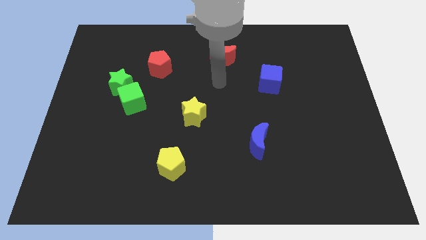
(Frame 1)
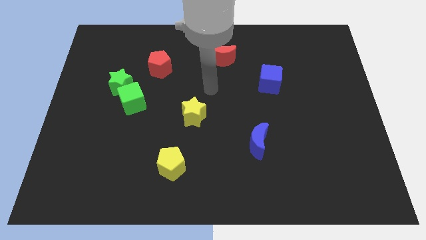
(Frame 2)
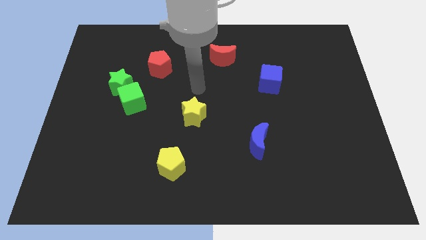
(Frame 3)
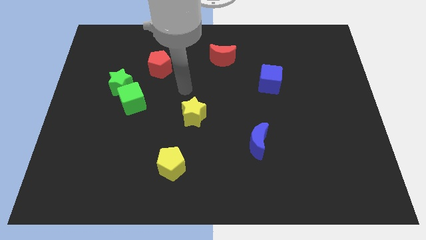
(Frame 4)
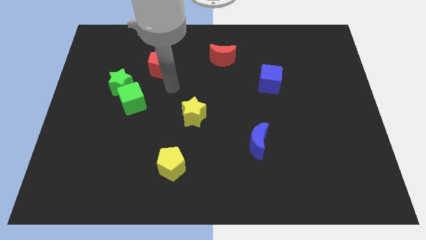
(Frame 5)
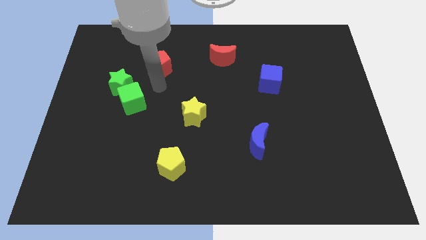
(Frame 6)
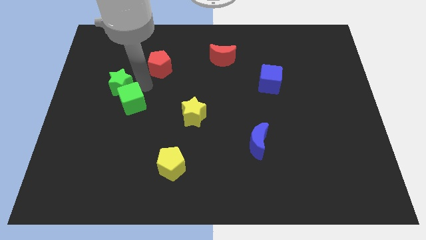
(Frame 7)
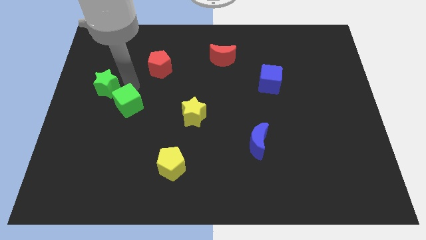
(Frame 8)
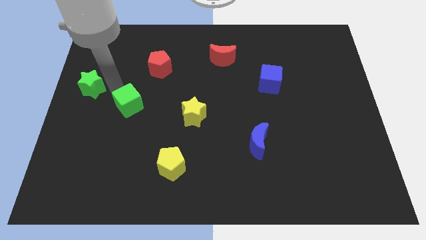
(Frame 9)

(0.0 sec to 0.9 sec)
pull the green cube apart from the green star

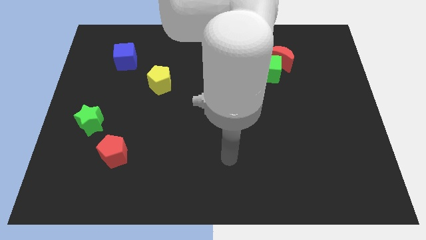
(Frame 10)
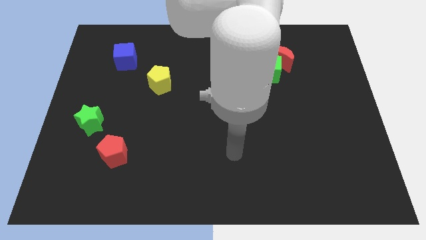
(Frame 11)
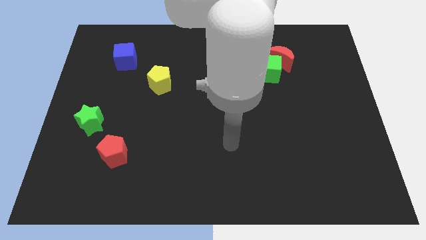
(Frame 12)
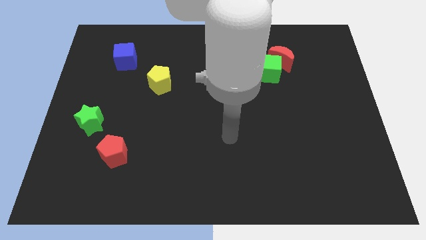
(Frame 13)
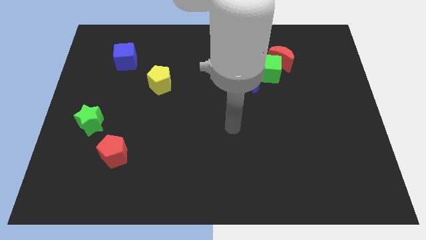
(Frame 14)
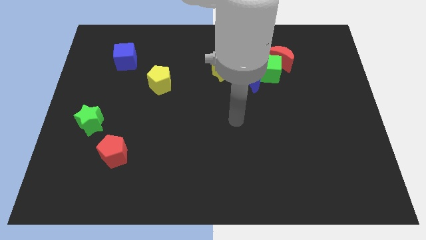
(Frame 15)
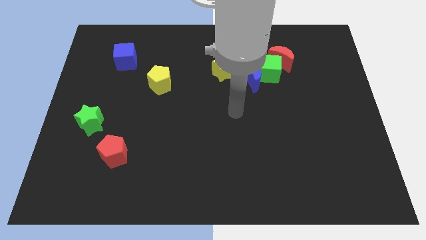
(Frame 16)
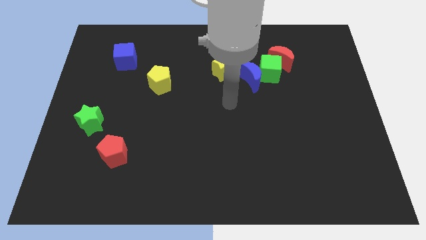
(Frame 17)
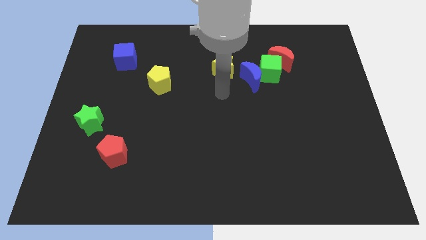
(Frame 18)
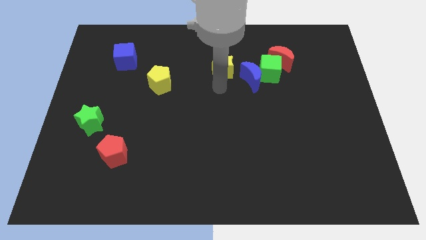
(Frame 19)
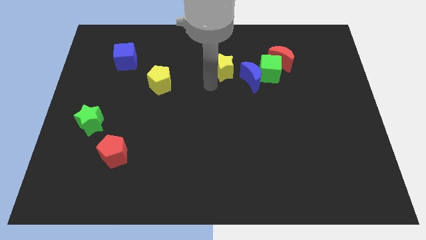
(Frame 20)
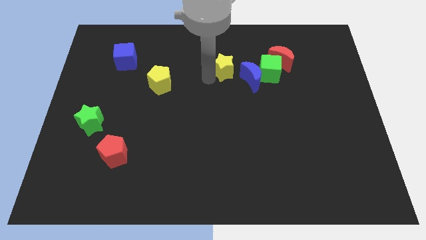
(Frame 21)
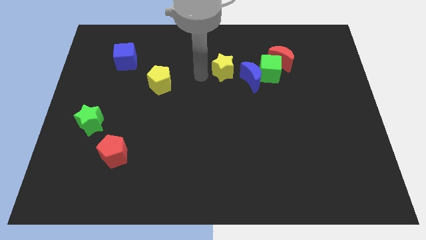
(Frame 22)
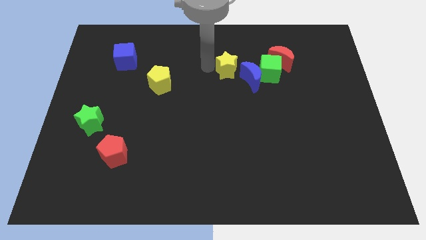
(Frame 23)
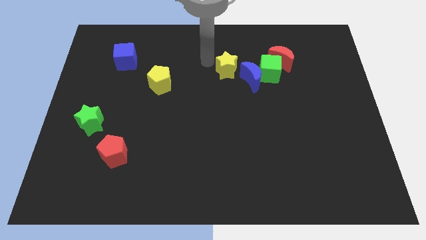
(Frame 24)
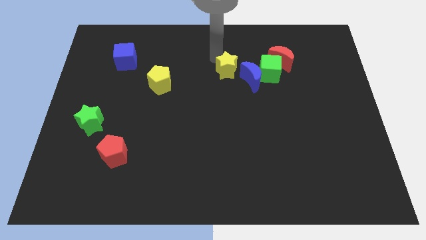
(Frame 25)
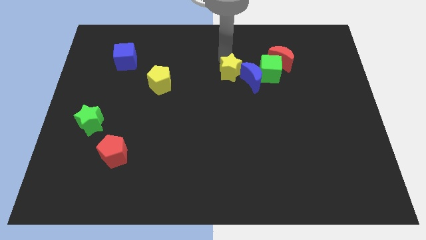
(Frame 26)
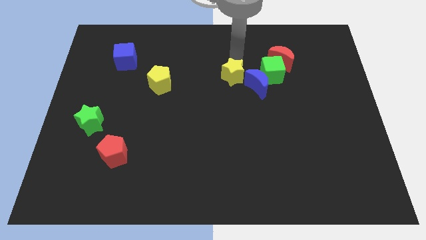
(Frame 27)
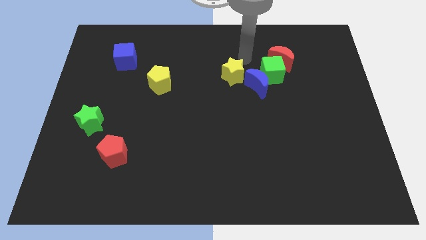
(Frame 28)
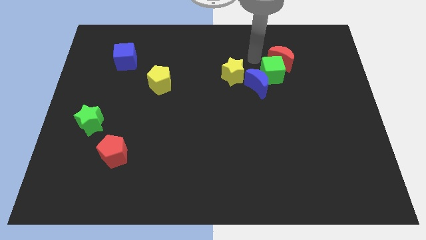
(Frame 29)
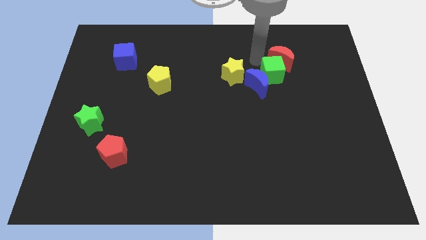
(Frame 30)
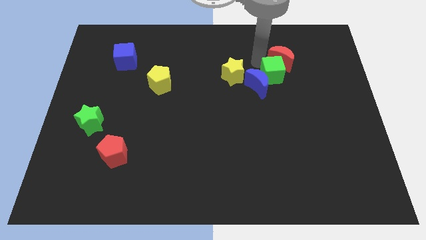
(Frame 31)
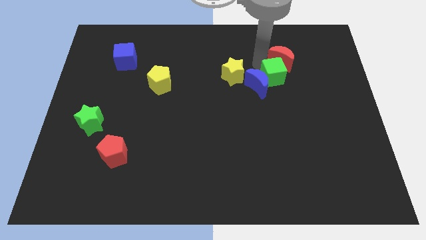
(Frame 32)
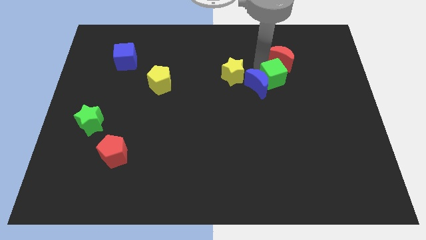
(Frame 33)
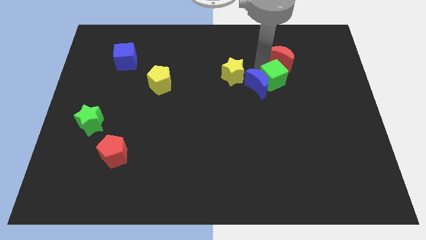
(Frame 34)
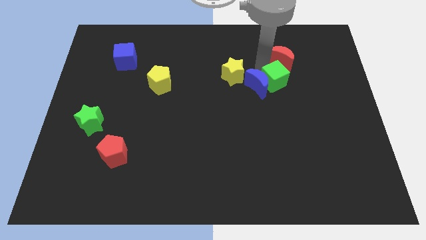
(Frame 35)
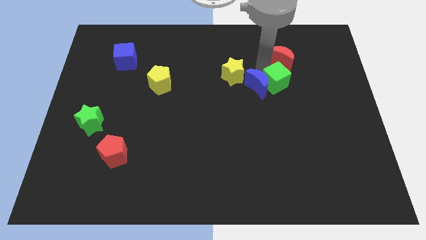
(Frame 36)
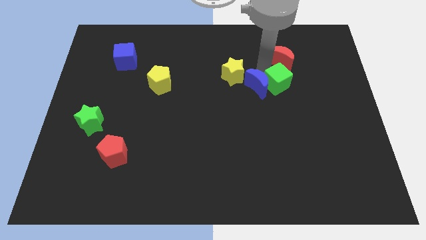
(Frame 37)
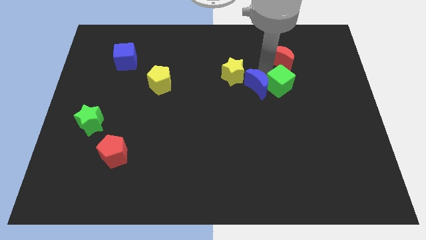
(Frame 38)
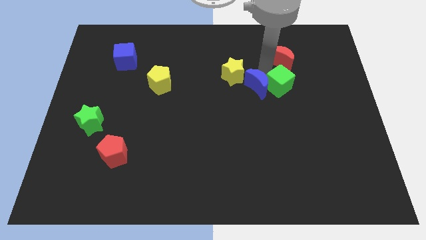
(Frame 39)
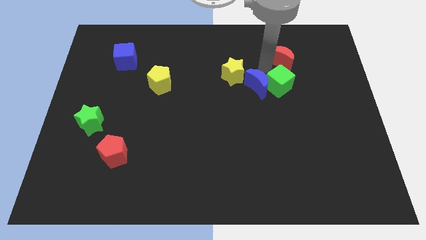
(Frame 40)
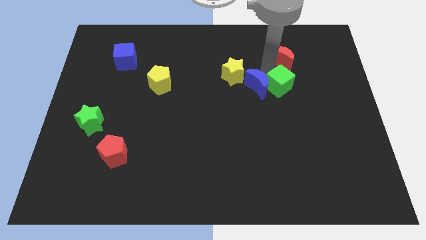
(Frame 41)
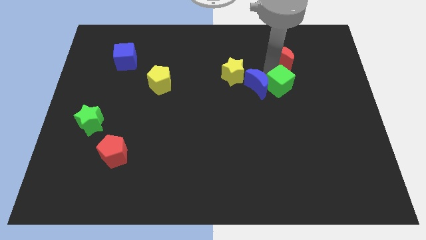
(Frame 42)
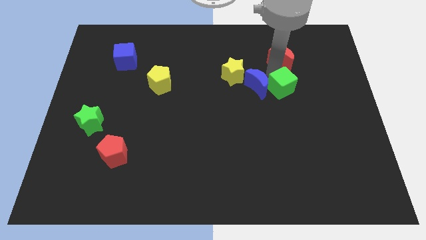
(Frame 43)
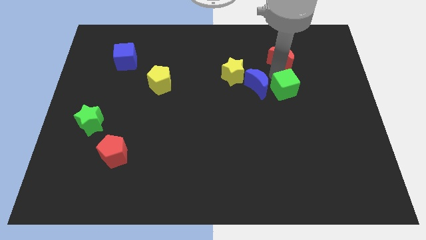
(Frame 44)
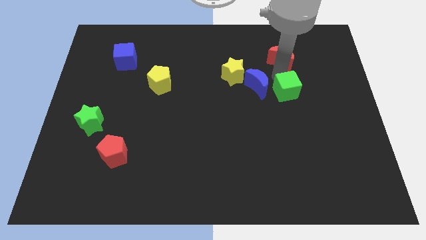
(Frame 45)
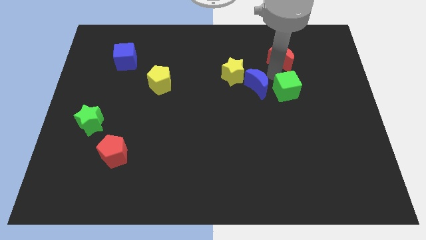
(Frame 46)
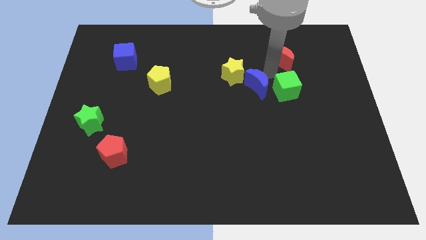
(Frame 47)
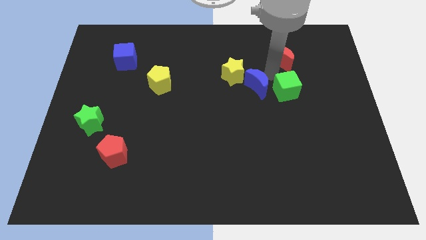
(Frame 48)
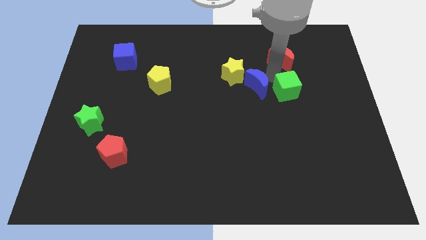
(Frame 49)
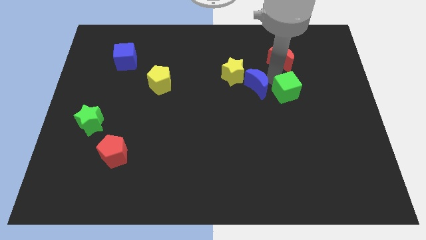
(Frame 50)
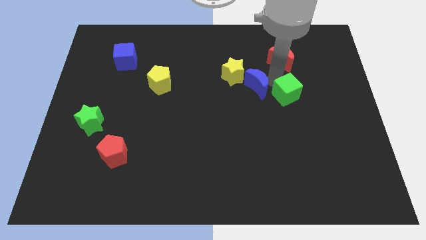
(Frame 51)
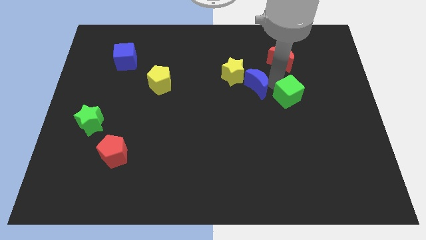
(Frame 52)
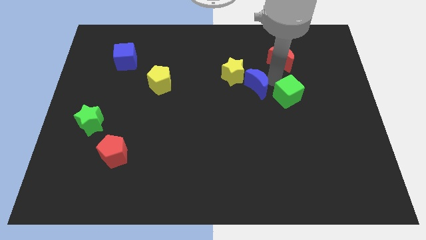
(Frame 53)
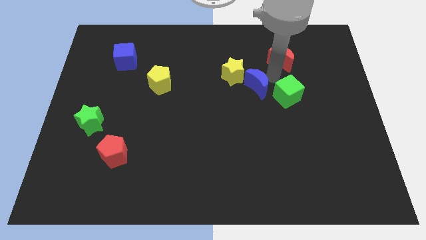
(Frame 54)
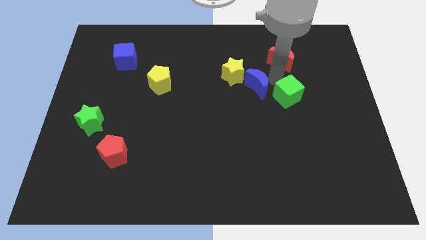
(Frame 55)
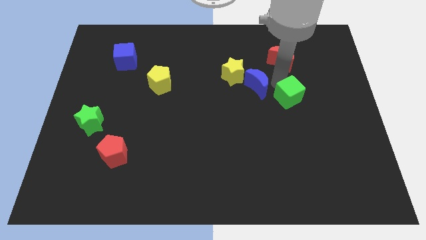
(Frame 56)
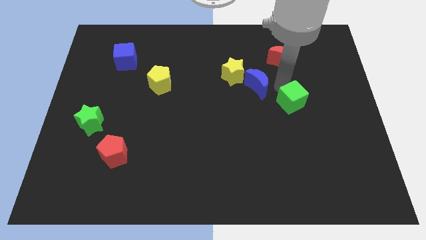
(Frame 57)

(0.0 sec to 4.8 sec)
move the green cube away from the blue moon and red moon

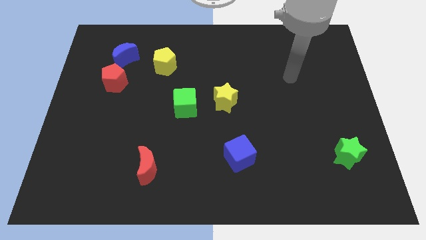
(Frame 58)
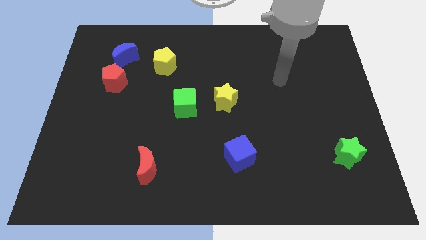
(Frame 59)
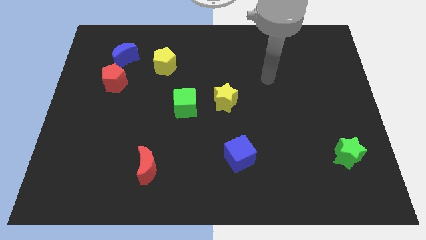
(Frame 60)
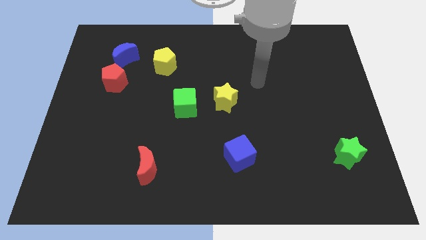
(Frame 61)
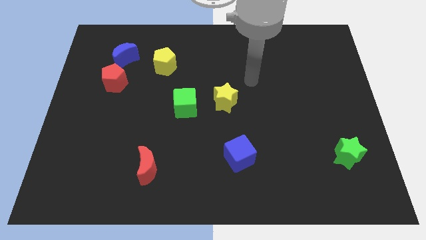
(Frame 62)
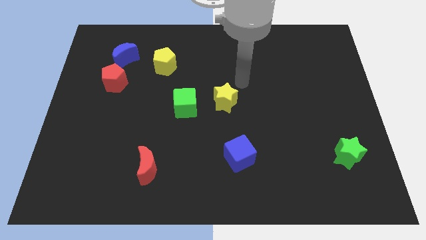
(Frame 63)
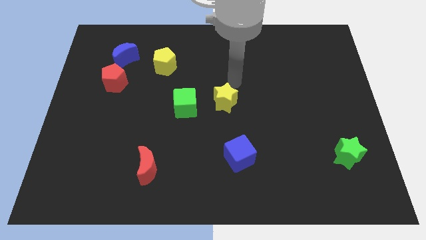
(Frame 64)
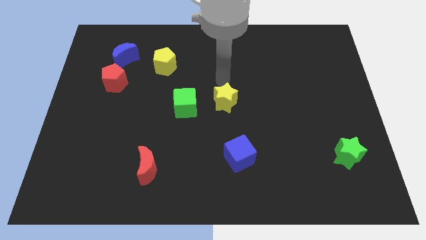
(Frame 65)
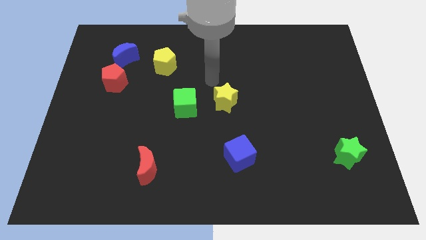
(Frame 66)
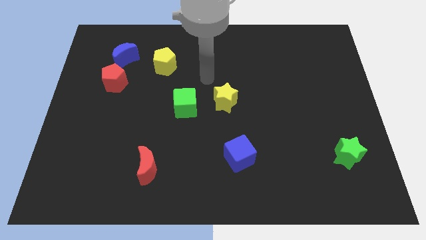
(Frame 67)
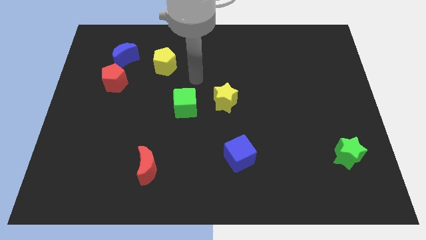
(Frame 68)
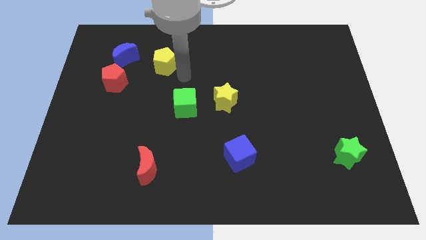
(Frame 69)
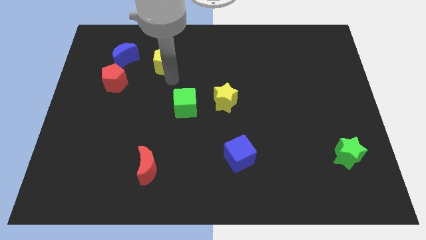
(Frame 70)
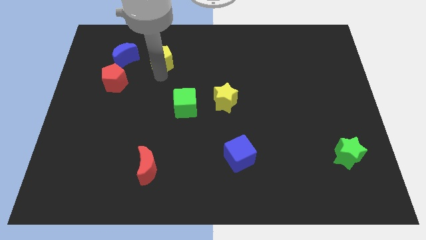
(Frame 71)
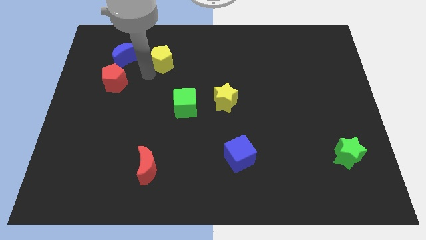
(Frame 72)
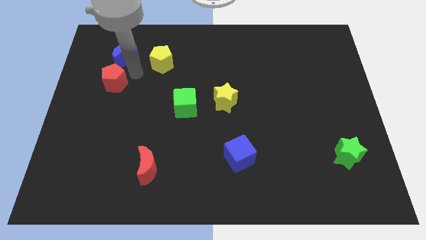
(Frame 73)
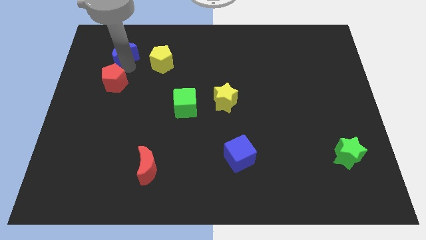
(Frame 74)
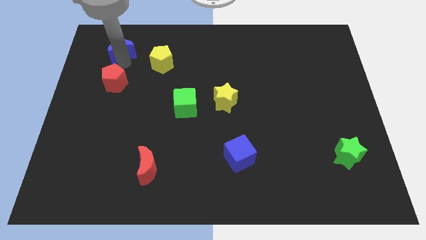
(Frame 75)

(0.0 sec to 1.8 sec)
move the red pentagon away from the blue moon

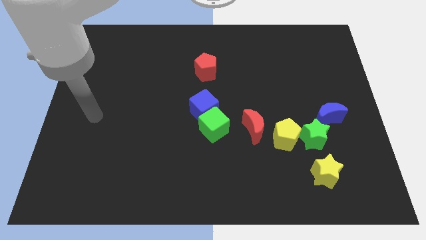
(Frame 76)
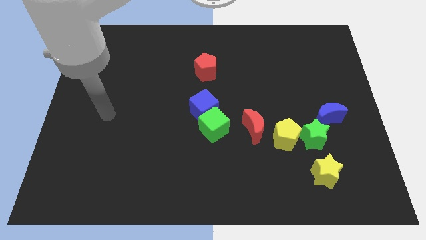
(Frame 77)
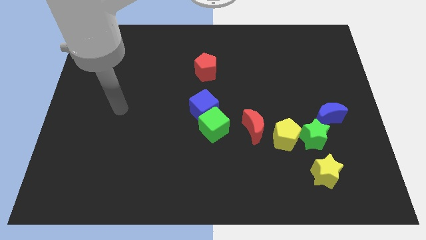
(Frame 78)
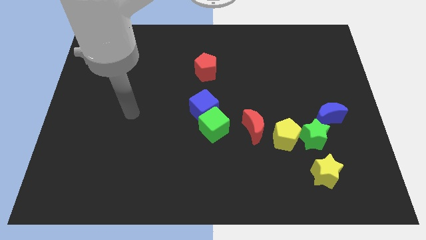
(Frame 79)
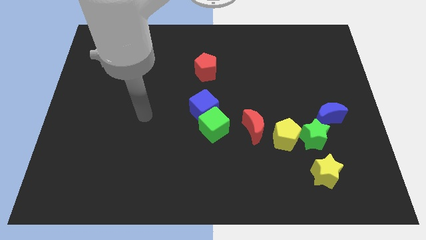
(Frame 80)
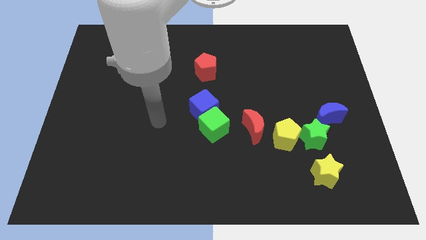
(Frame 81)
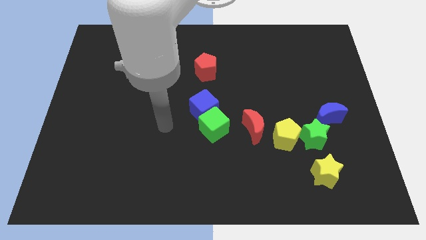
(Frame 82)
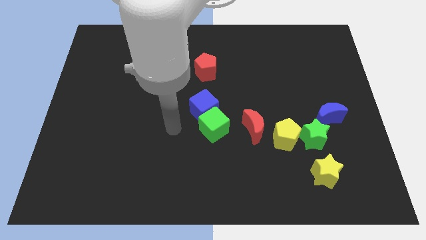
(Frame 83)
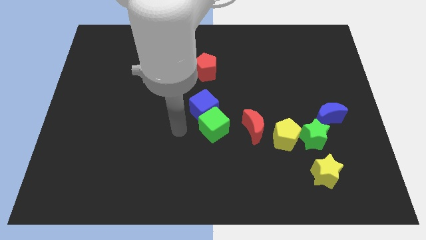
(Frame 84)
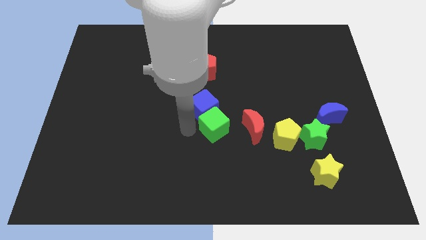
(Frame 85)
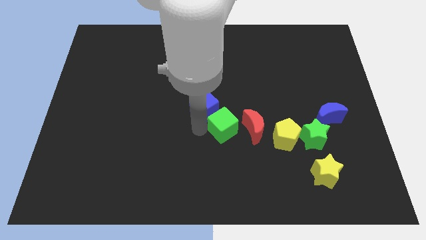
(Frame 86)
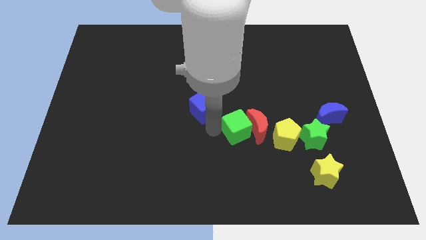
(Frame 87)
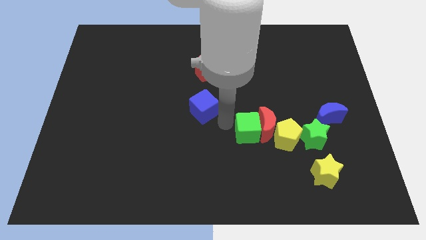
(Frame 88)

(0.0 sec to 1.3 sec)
move the blue cube away from the green cube

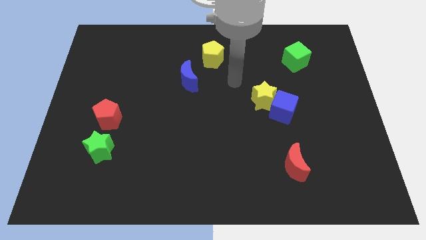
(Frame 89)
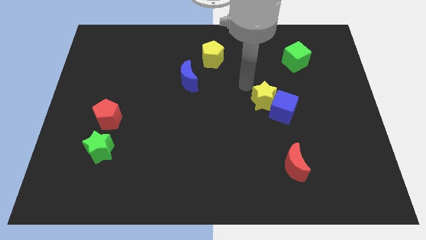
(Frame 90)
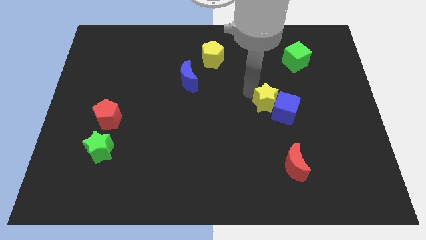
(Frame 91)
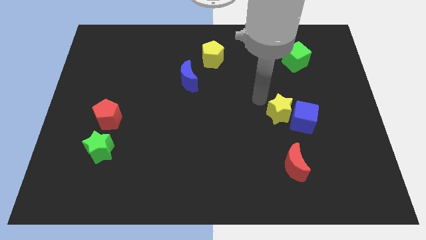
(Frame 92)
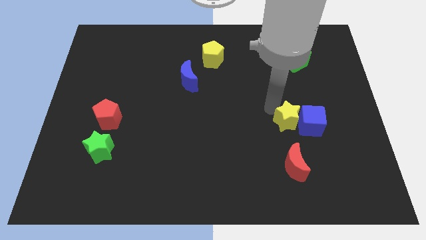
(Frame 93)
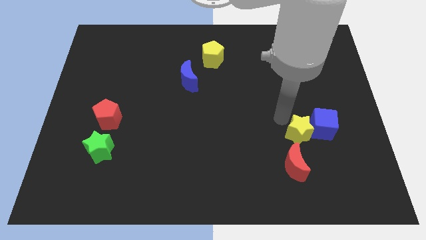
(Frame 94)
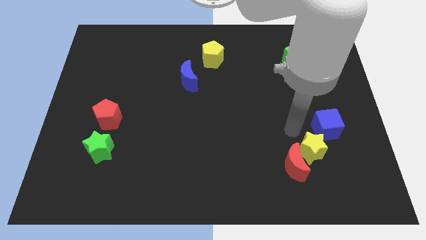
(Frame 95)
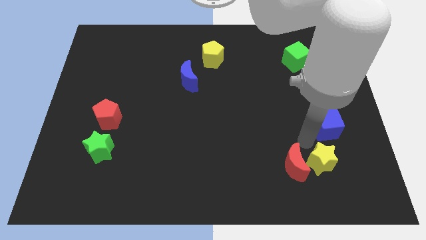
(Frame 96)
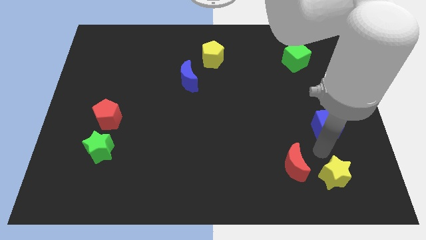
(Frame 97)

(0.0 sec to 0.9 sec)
pull the blue cube apart from the yellow star
